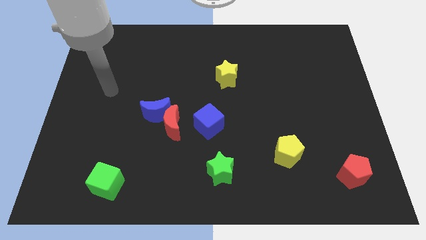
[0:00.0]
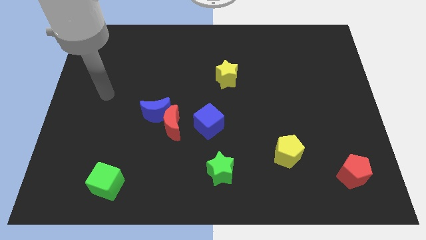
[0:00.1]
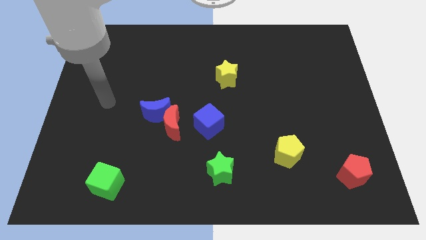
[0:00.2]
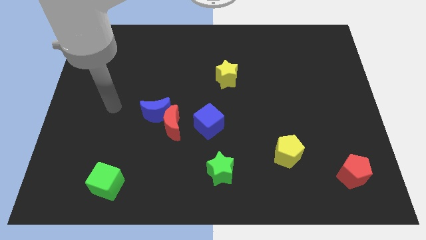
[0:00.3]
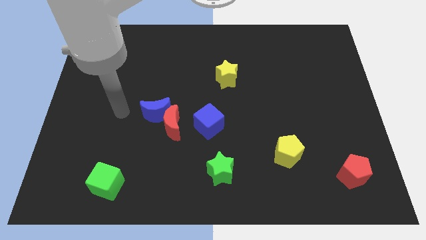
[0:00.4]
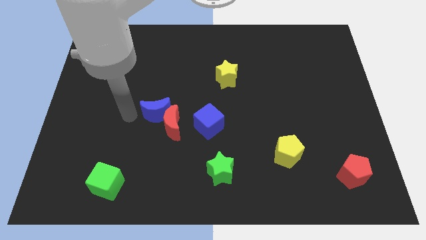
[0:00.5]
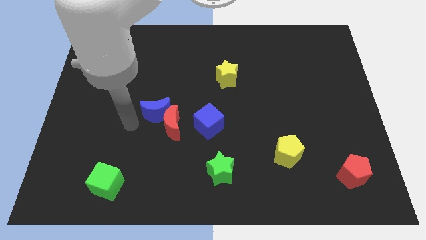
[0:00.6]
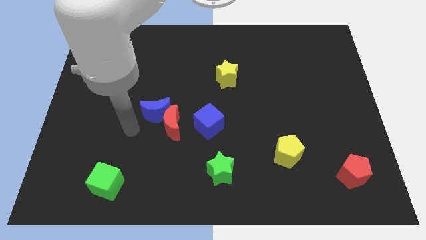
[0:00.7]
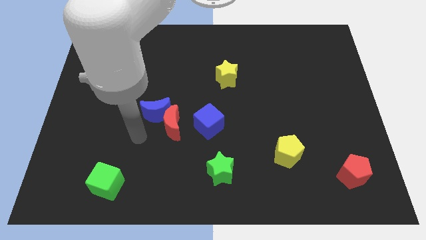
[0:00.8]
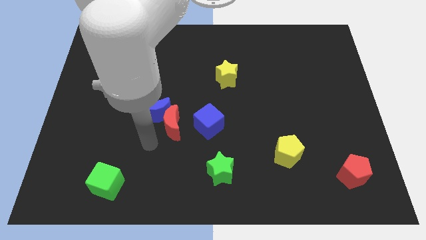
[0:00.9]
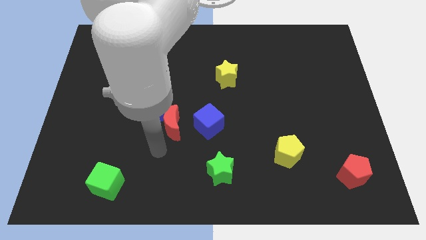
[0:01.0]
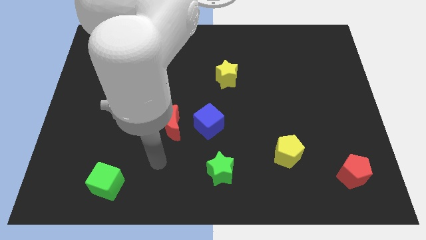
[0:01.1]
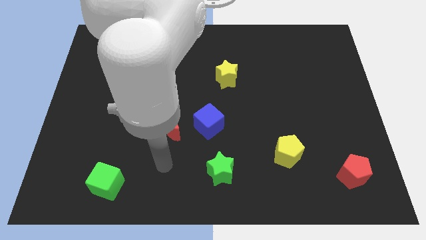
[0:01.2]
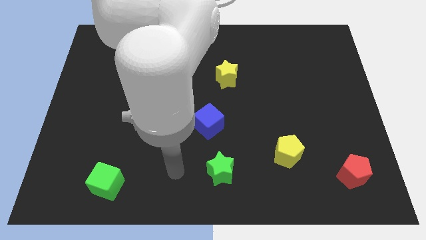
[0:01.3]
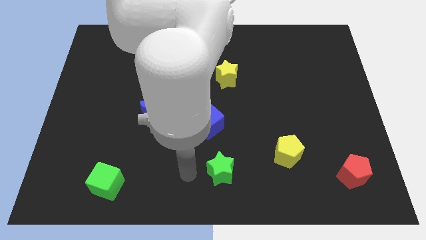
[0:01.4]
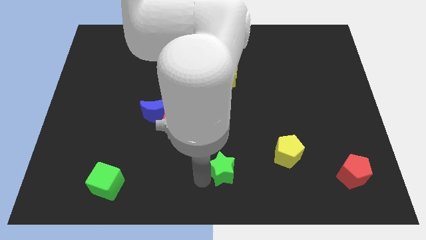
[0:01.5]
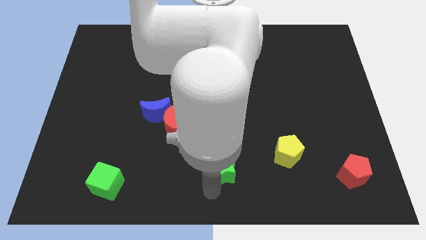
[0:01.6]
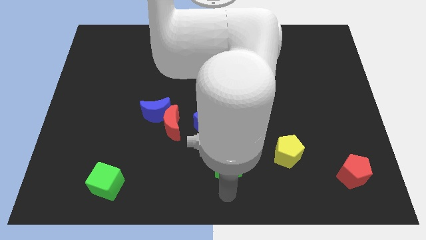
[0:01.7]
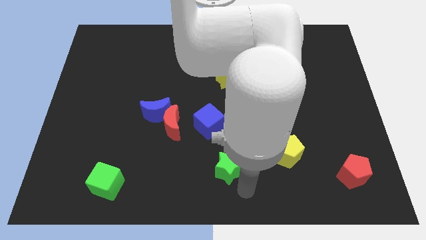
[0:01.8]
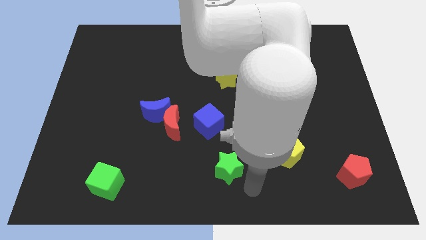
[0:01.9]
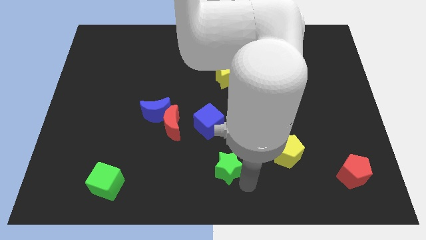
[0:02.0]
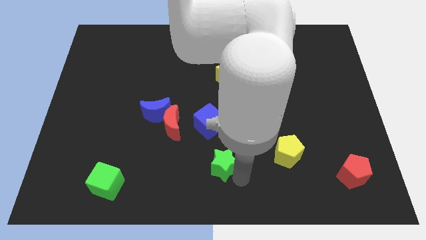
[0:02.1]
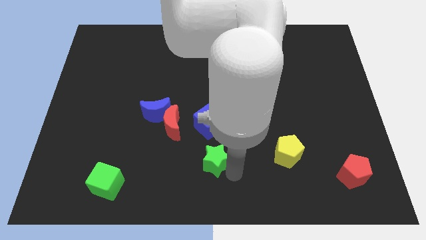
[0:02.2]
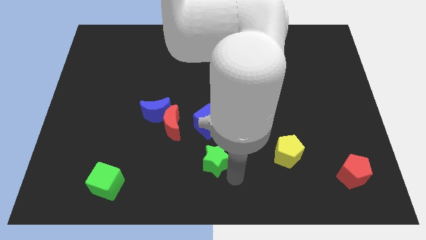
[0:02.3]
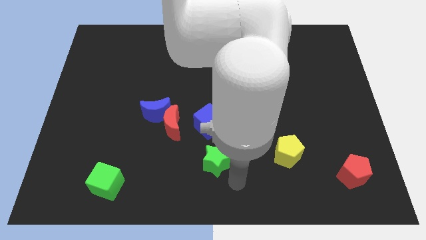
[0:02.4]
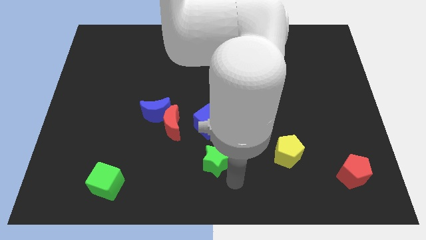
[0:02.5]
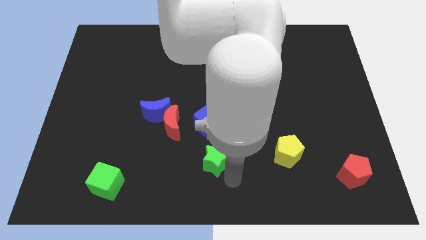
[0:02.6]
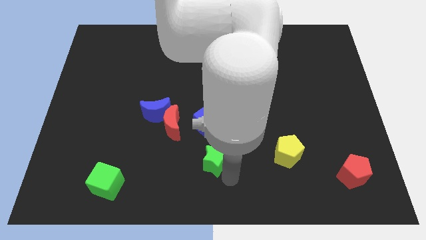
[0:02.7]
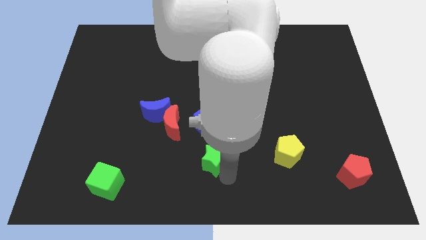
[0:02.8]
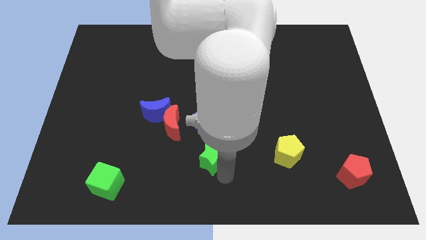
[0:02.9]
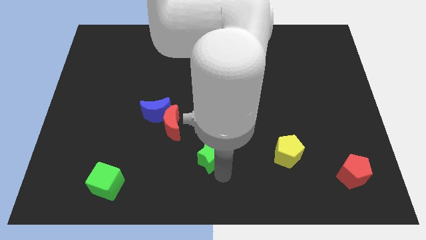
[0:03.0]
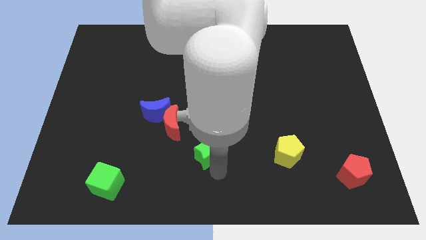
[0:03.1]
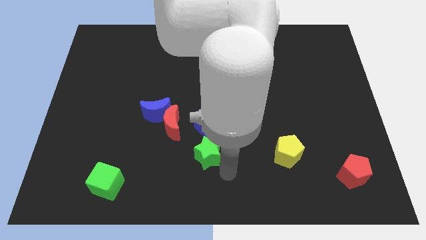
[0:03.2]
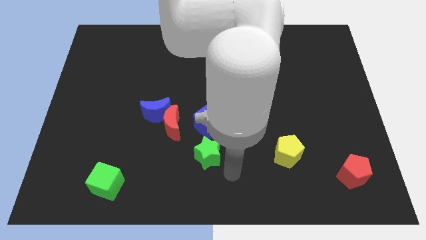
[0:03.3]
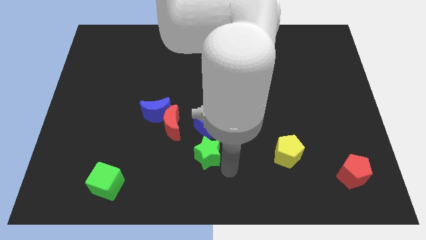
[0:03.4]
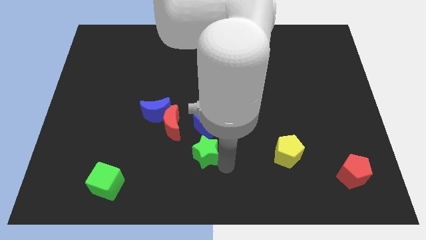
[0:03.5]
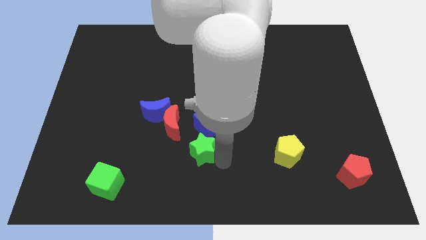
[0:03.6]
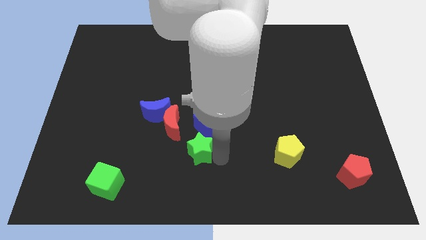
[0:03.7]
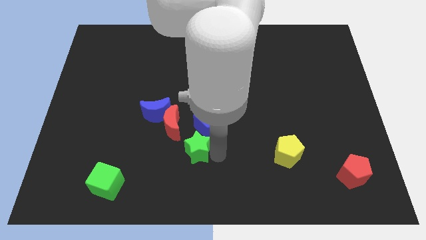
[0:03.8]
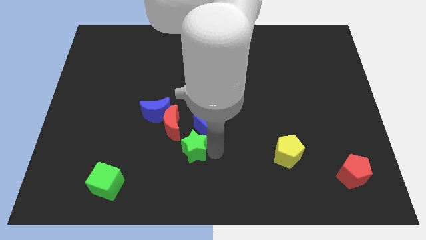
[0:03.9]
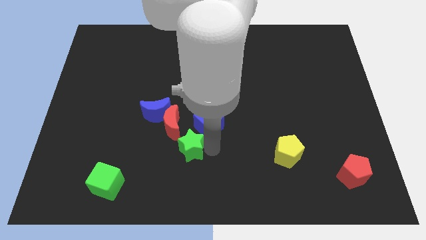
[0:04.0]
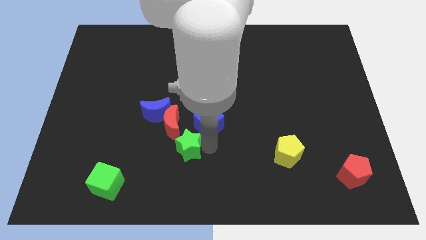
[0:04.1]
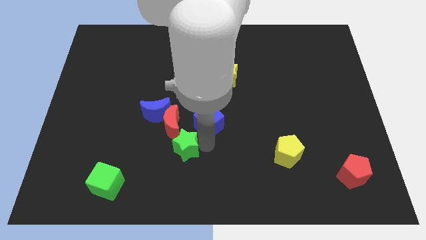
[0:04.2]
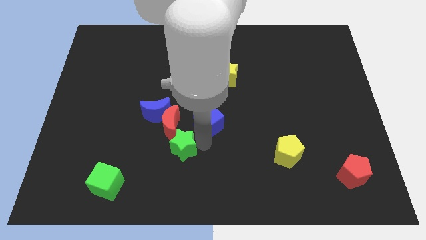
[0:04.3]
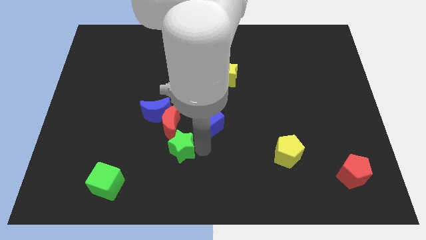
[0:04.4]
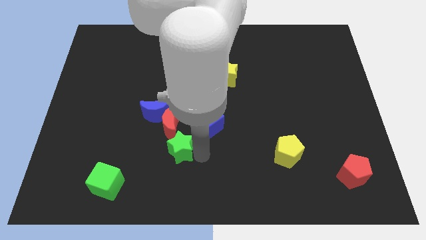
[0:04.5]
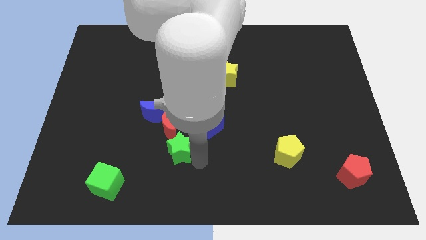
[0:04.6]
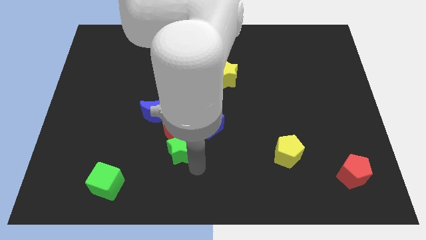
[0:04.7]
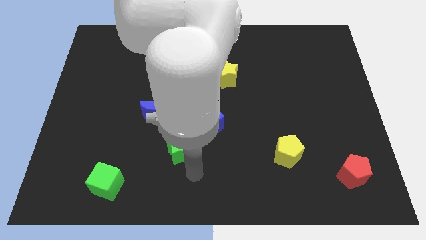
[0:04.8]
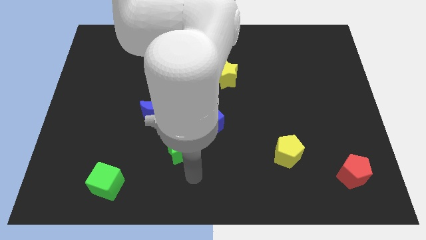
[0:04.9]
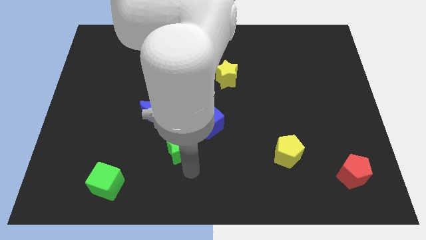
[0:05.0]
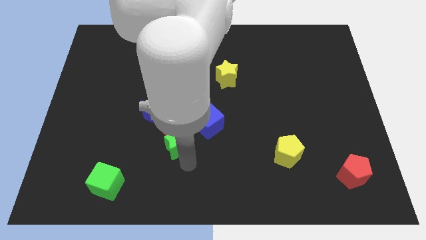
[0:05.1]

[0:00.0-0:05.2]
push the green star towards the red moon

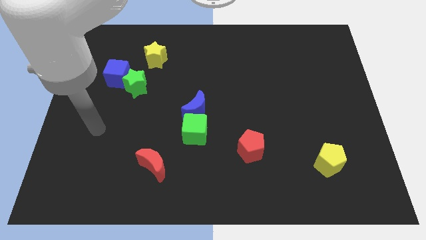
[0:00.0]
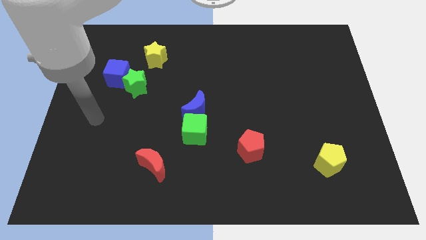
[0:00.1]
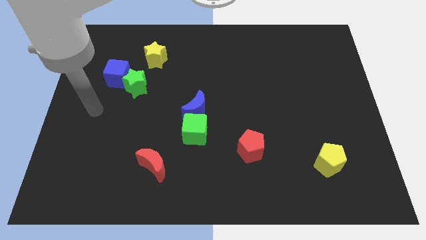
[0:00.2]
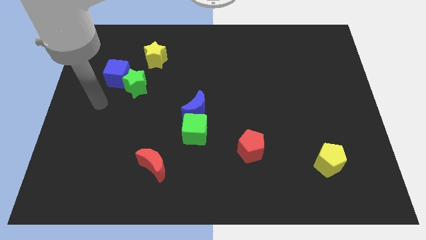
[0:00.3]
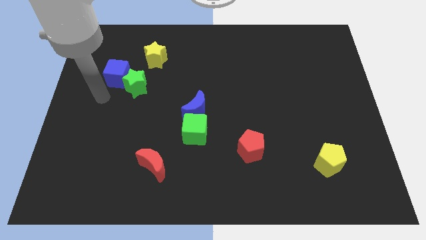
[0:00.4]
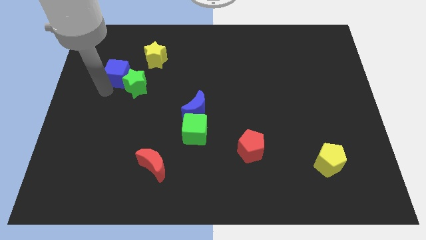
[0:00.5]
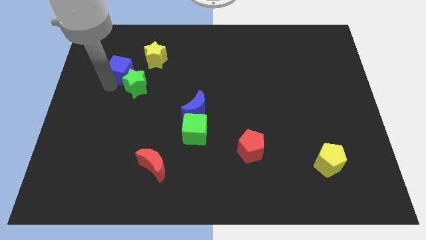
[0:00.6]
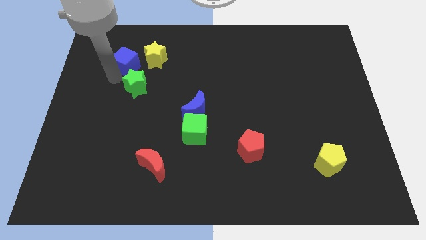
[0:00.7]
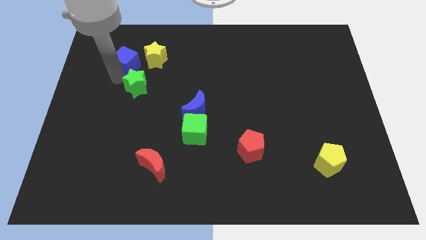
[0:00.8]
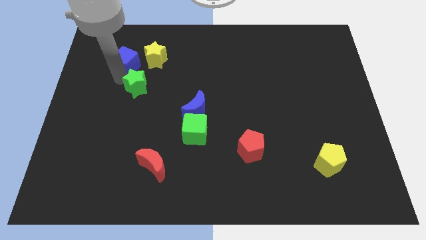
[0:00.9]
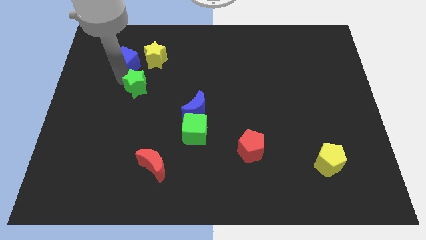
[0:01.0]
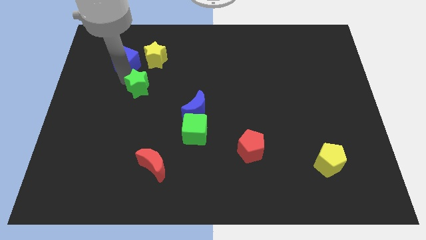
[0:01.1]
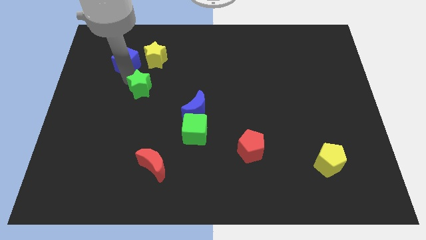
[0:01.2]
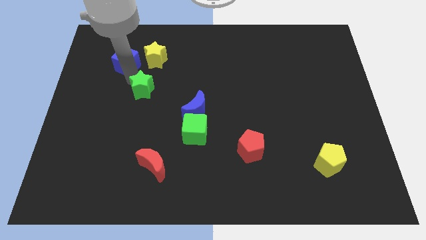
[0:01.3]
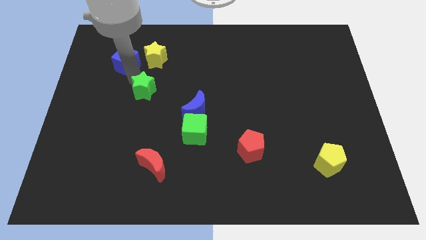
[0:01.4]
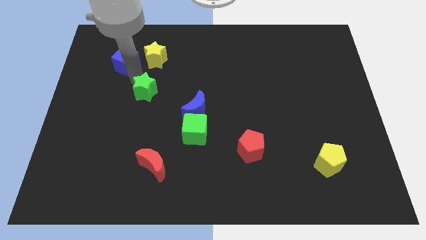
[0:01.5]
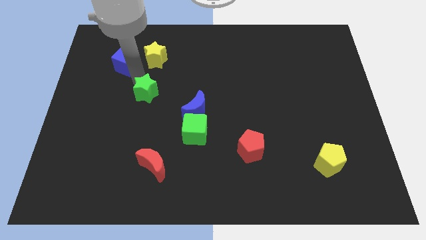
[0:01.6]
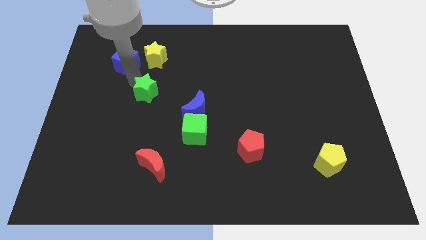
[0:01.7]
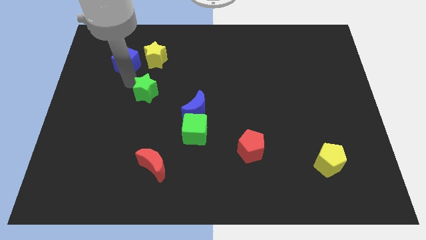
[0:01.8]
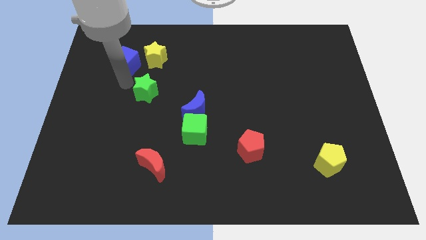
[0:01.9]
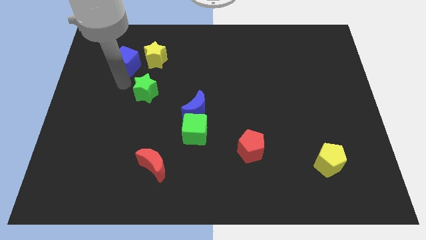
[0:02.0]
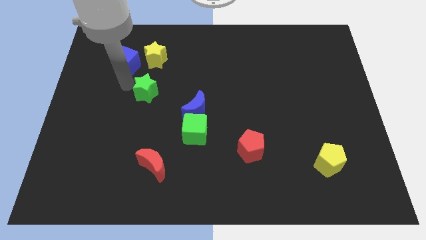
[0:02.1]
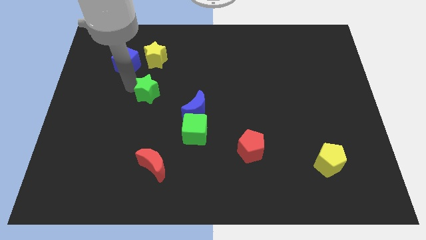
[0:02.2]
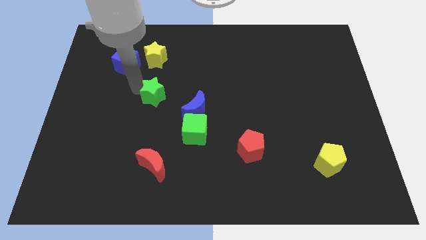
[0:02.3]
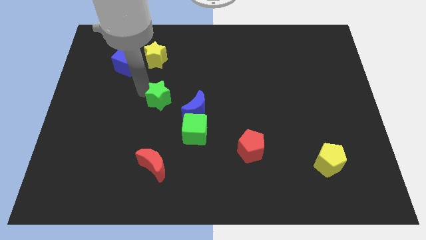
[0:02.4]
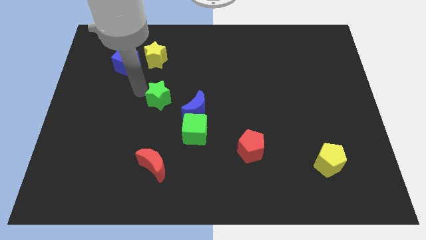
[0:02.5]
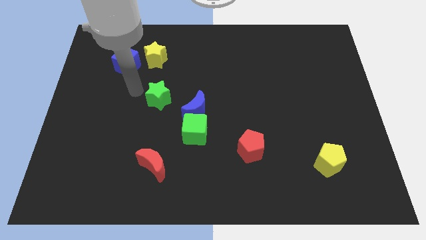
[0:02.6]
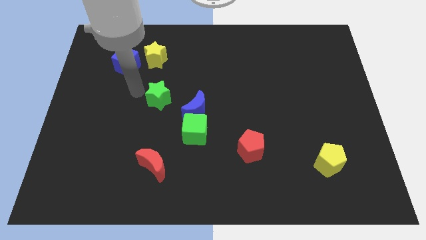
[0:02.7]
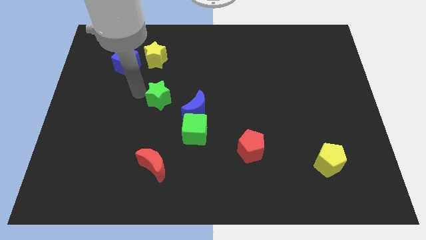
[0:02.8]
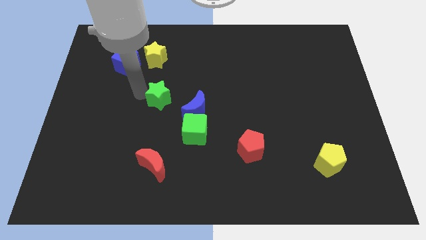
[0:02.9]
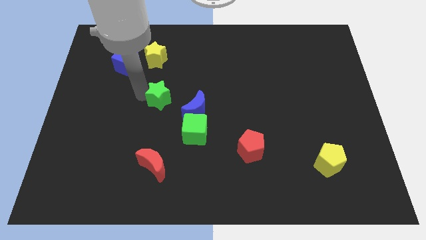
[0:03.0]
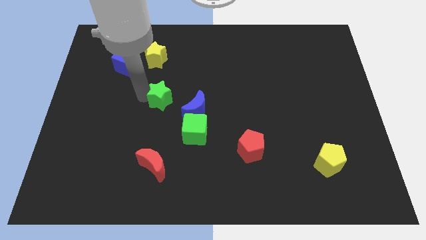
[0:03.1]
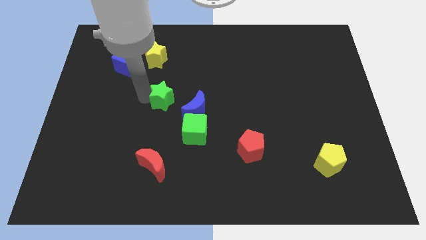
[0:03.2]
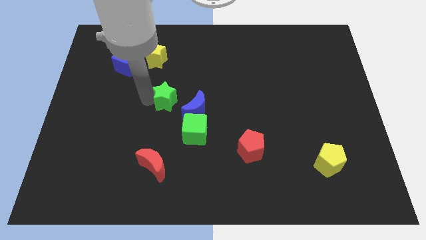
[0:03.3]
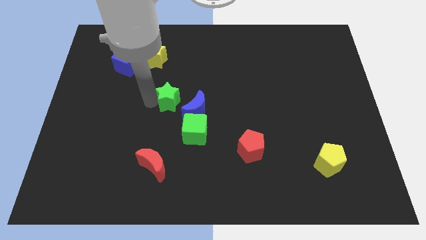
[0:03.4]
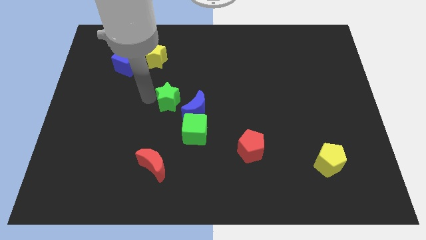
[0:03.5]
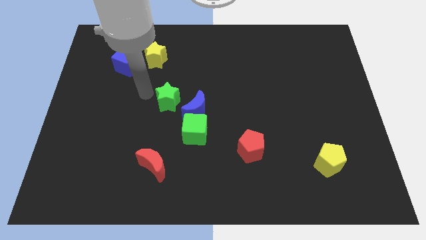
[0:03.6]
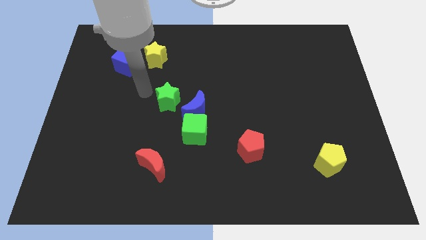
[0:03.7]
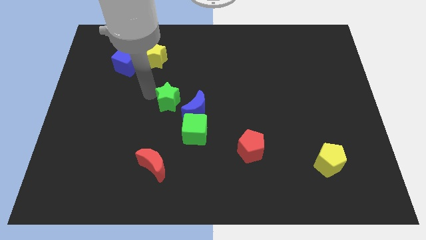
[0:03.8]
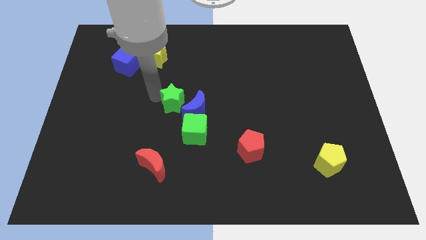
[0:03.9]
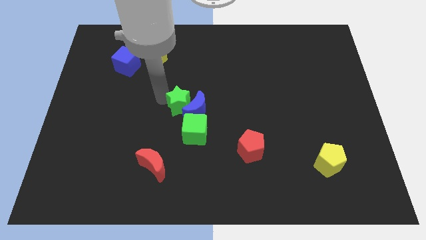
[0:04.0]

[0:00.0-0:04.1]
move the green star to the blue moon
